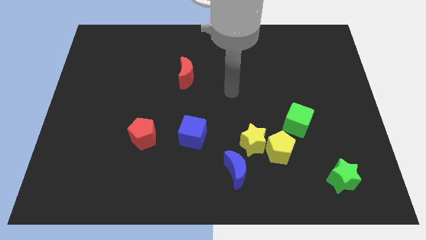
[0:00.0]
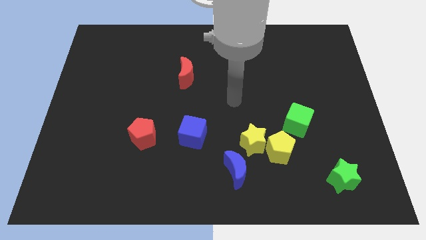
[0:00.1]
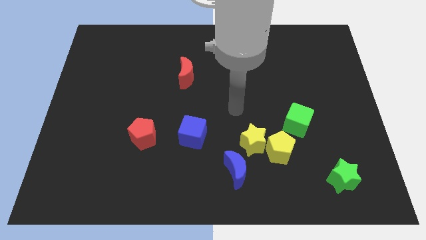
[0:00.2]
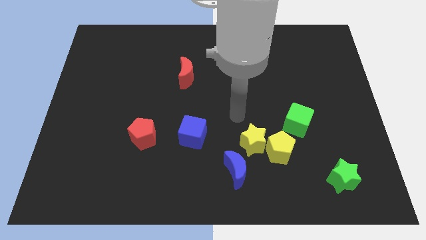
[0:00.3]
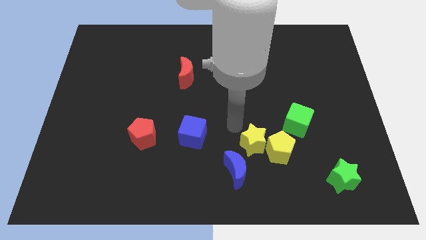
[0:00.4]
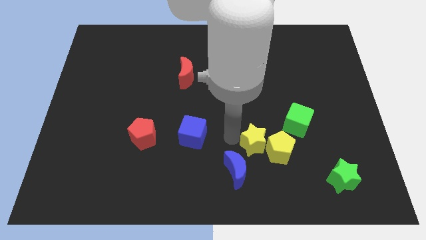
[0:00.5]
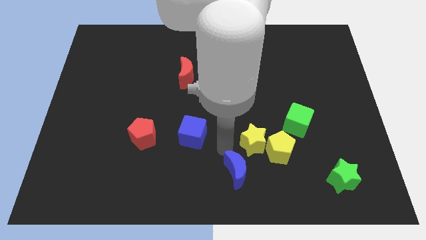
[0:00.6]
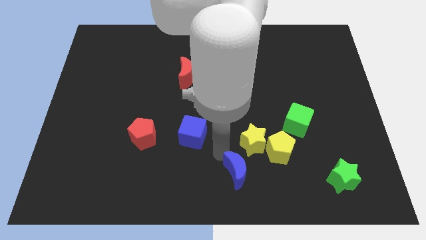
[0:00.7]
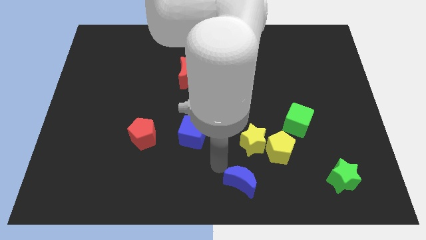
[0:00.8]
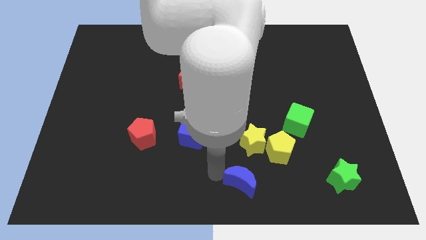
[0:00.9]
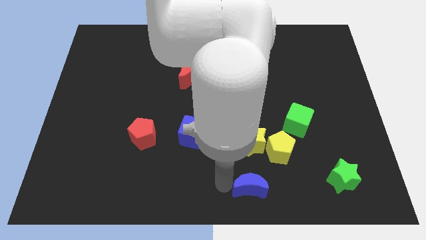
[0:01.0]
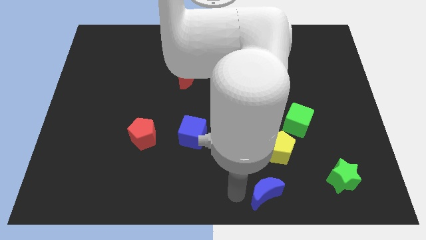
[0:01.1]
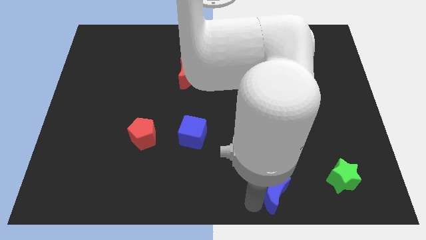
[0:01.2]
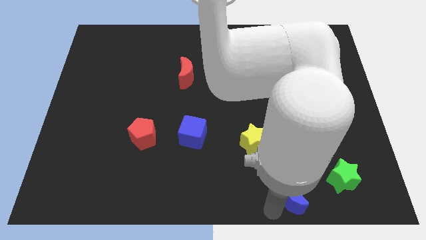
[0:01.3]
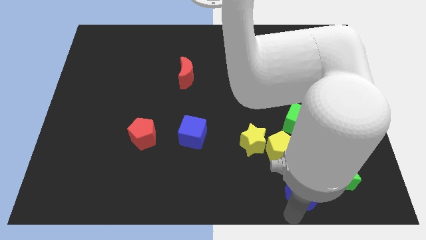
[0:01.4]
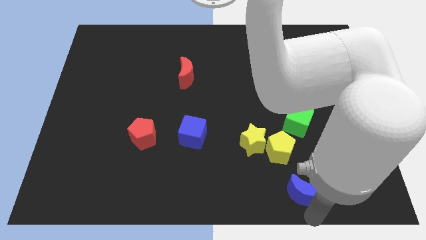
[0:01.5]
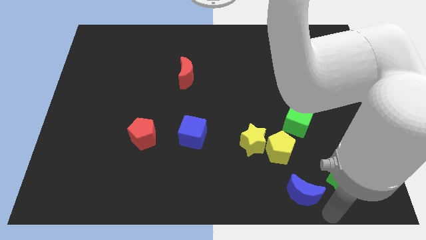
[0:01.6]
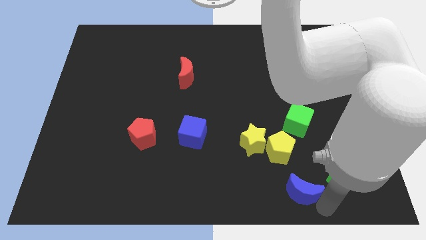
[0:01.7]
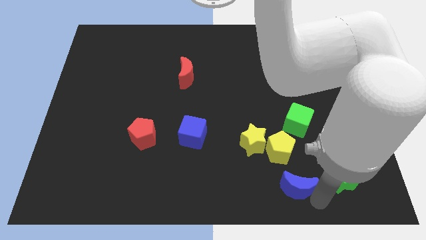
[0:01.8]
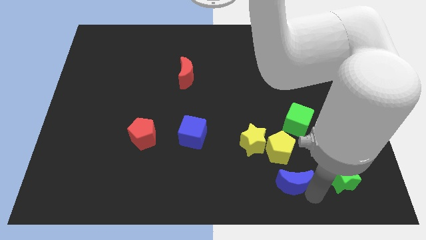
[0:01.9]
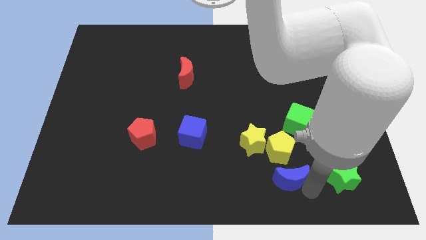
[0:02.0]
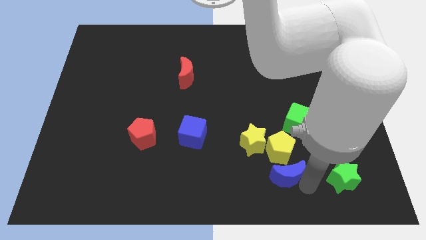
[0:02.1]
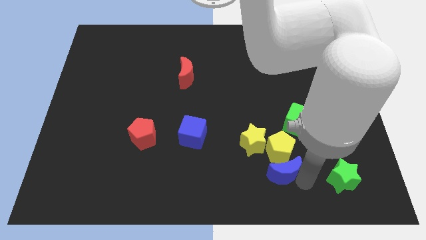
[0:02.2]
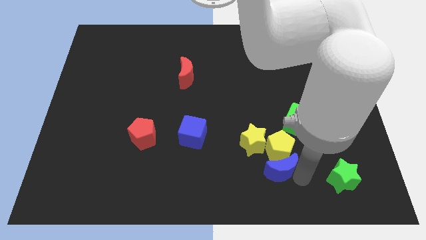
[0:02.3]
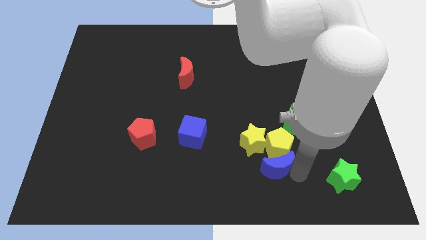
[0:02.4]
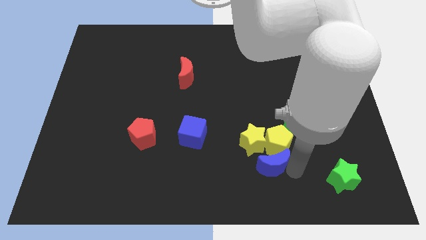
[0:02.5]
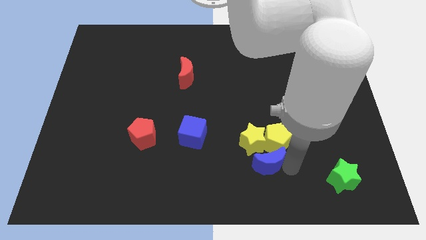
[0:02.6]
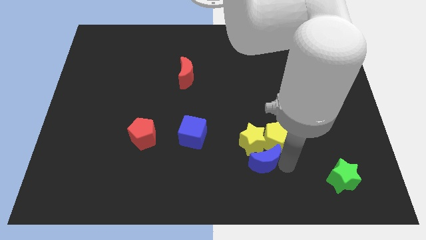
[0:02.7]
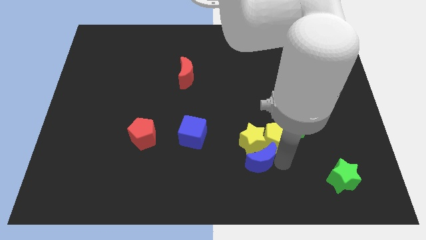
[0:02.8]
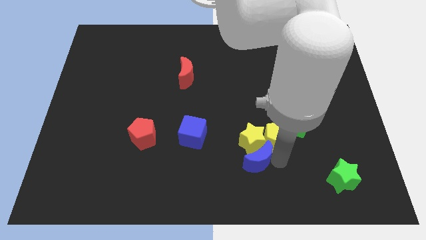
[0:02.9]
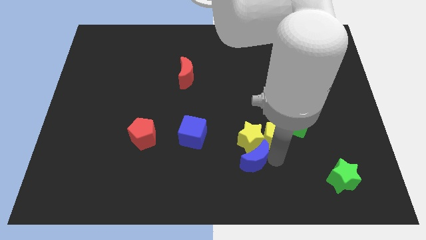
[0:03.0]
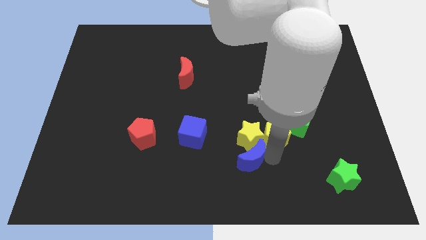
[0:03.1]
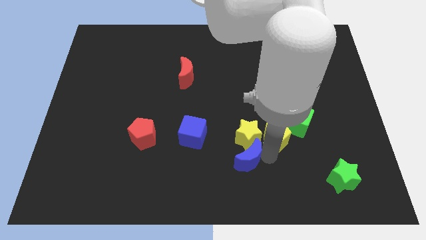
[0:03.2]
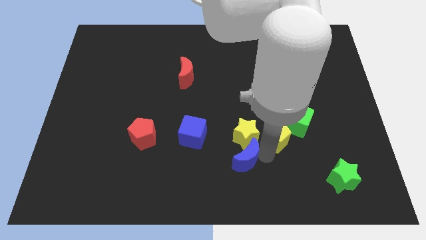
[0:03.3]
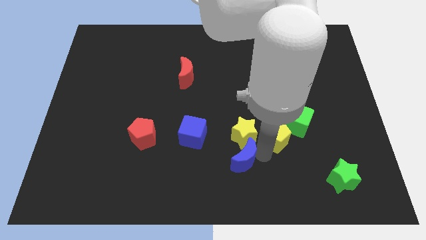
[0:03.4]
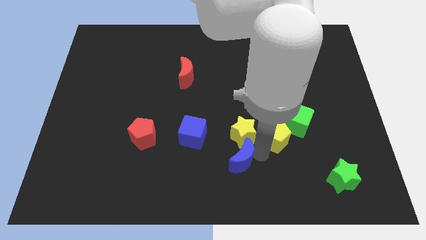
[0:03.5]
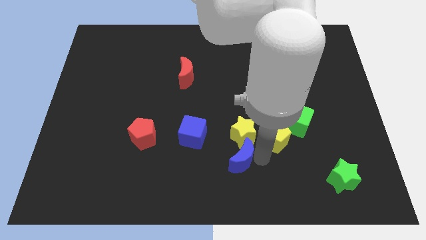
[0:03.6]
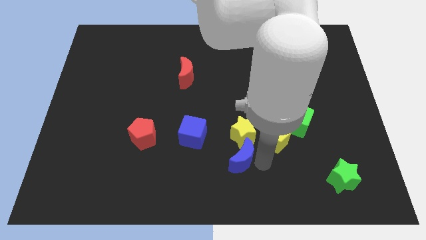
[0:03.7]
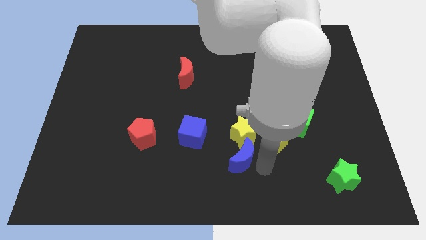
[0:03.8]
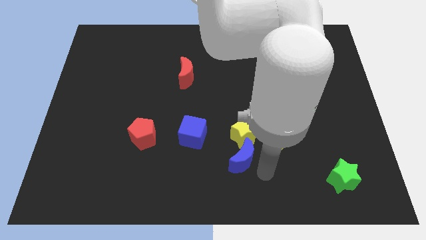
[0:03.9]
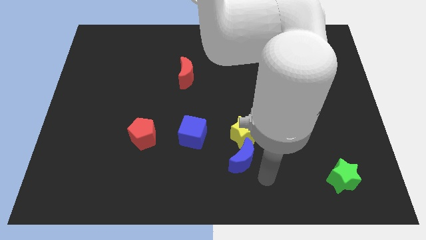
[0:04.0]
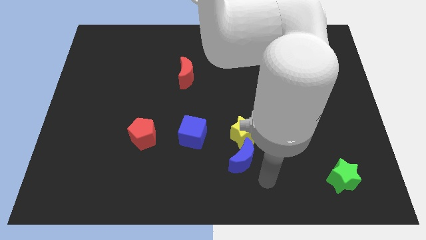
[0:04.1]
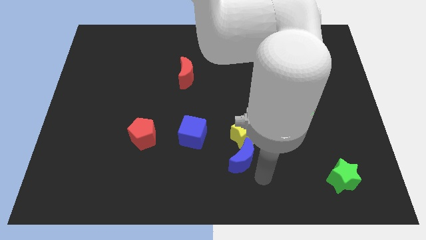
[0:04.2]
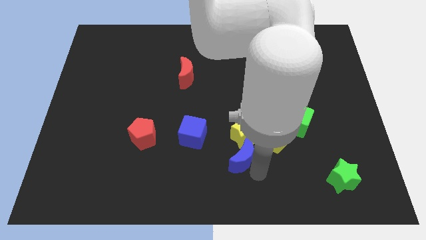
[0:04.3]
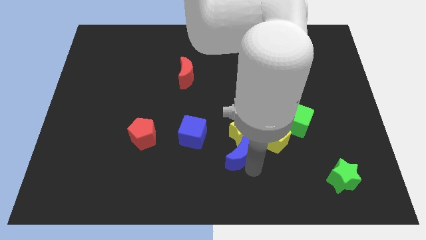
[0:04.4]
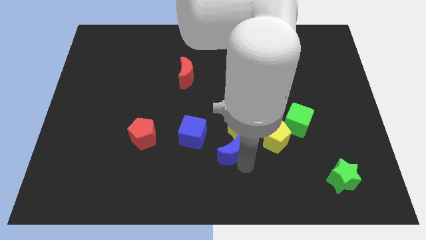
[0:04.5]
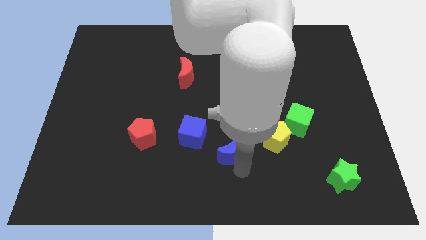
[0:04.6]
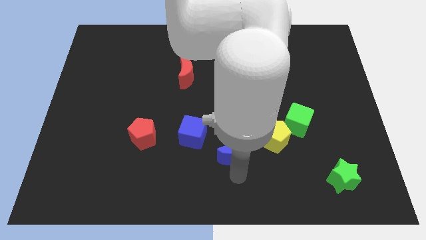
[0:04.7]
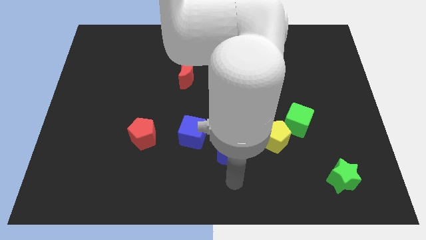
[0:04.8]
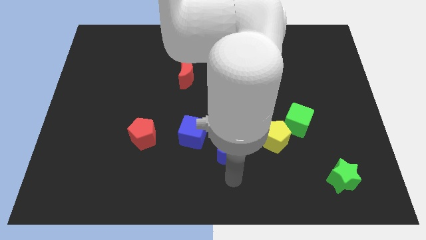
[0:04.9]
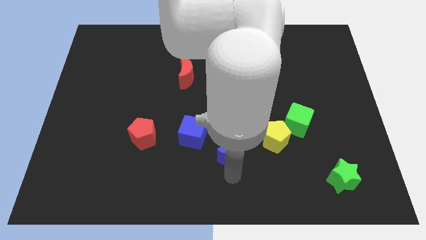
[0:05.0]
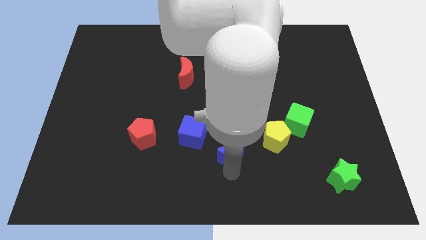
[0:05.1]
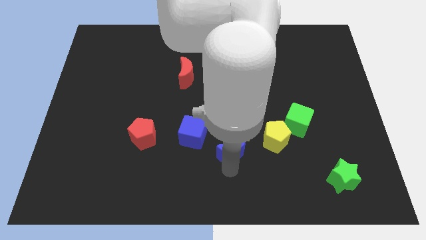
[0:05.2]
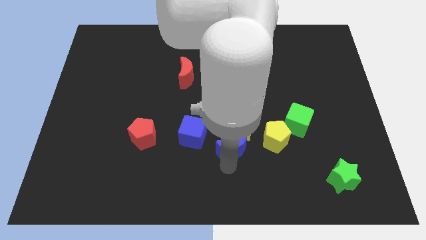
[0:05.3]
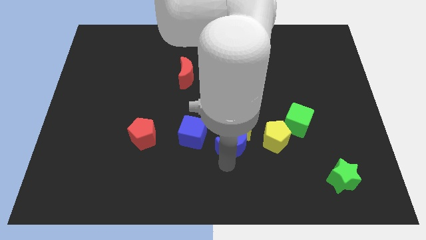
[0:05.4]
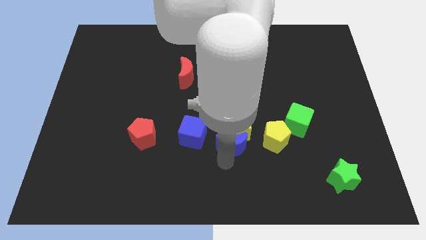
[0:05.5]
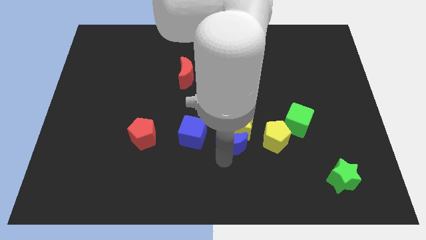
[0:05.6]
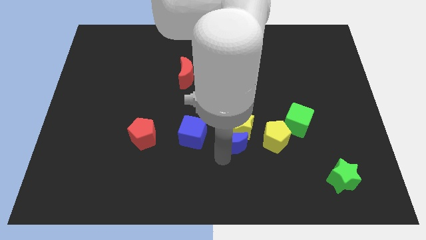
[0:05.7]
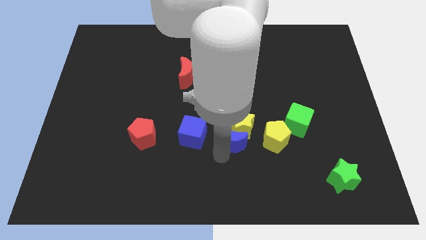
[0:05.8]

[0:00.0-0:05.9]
slide the blue moon upwards a bit

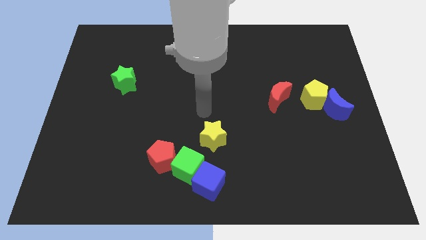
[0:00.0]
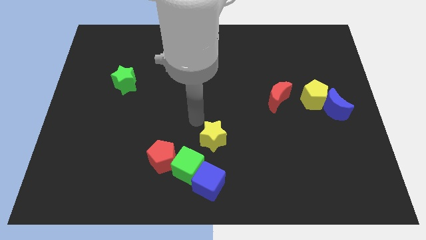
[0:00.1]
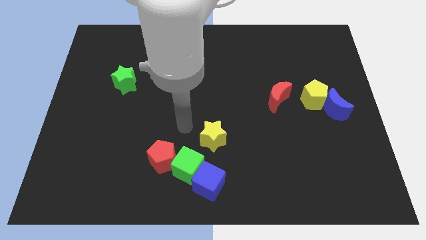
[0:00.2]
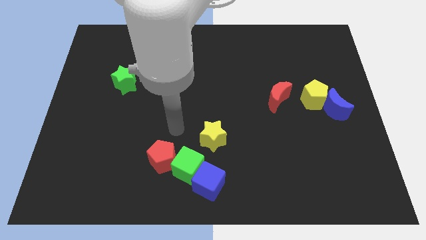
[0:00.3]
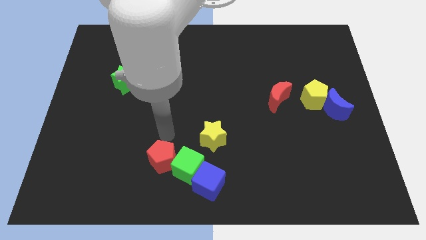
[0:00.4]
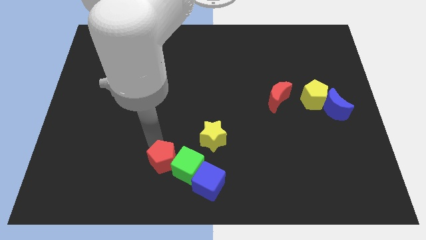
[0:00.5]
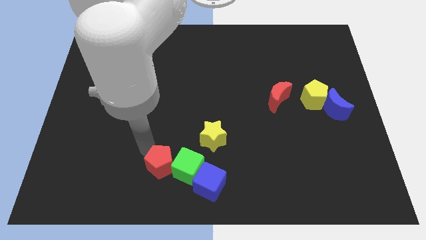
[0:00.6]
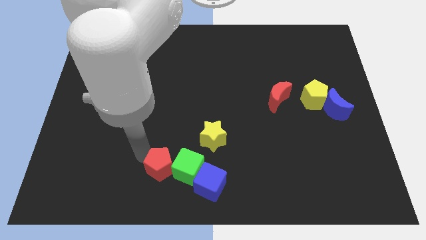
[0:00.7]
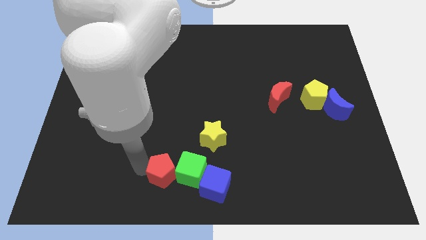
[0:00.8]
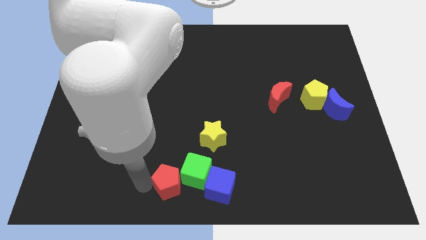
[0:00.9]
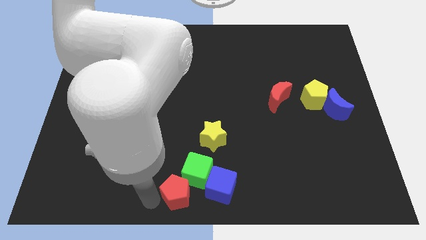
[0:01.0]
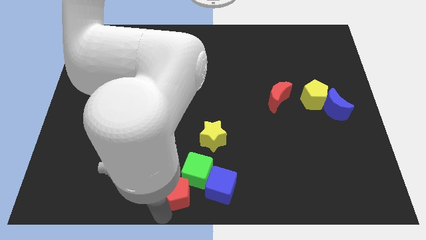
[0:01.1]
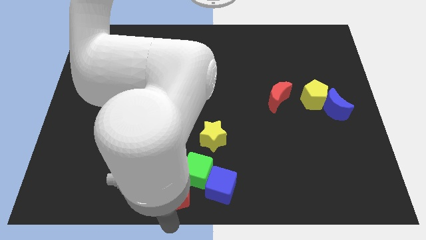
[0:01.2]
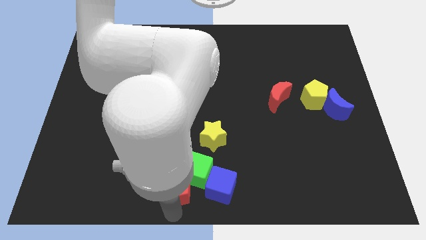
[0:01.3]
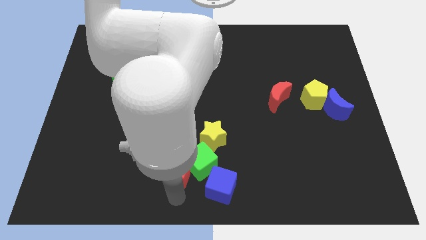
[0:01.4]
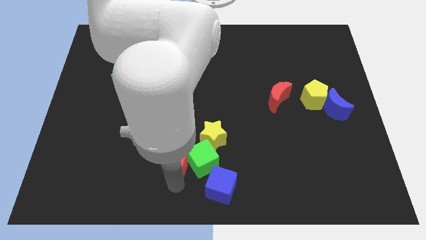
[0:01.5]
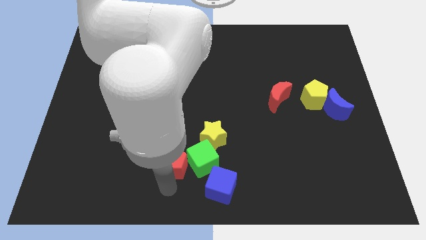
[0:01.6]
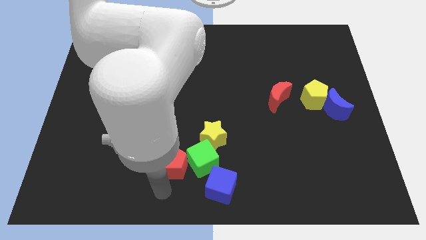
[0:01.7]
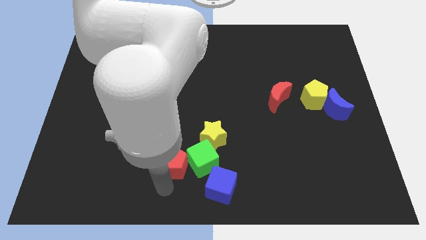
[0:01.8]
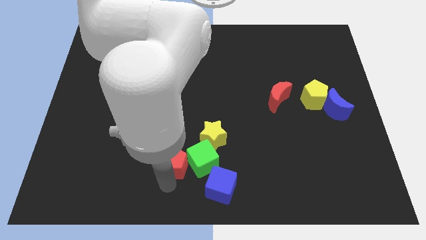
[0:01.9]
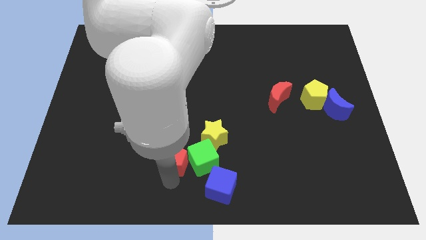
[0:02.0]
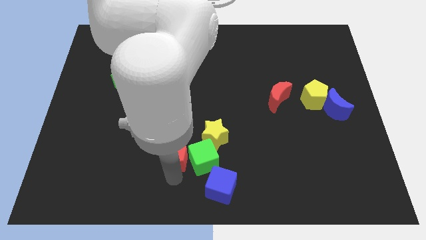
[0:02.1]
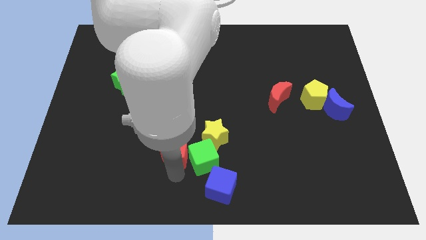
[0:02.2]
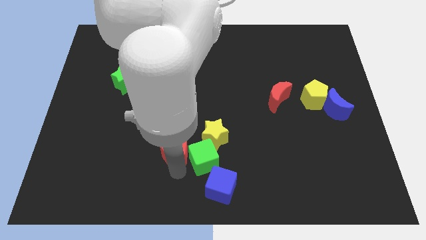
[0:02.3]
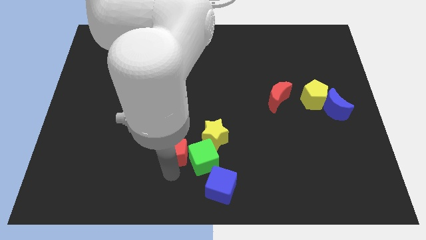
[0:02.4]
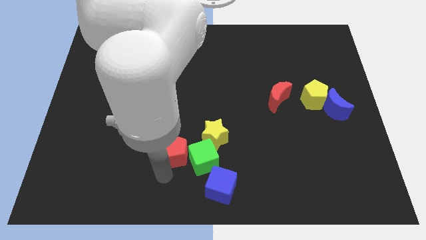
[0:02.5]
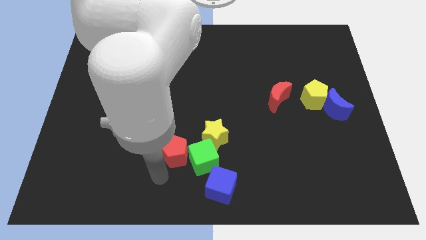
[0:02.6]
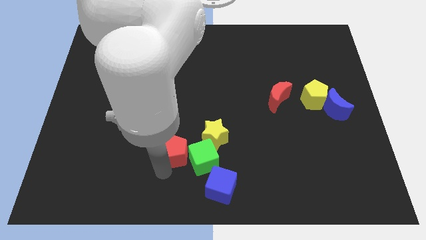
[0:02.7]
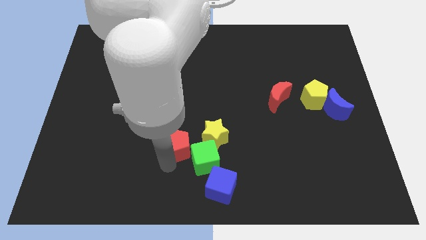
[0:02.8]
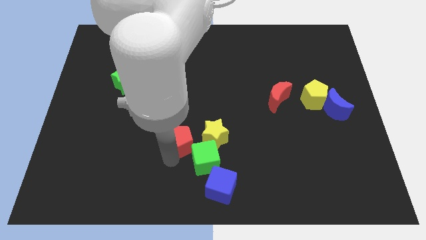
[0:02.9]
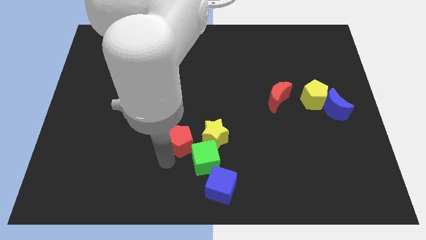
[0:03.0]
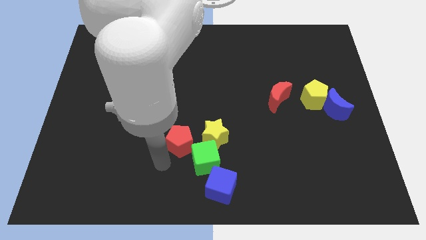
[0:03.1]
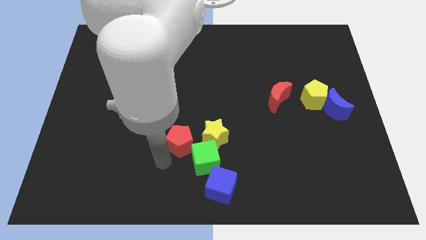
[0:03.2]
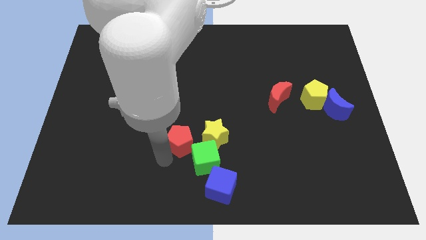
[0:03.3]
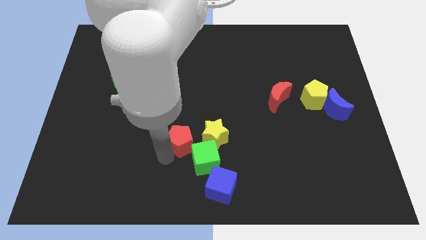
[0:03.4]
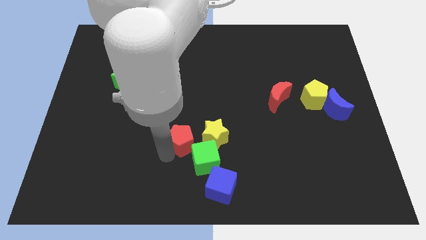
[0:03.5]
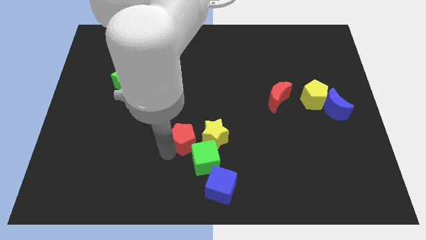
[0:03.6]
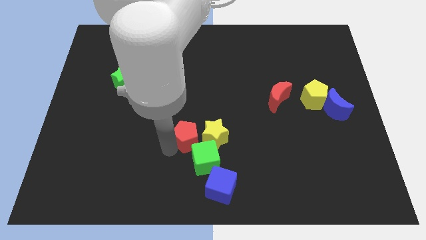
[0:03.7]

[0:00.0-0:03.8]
move the red pentagon up and then right a little bit
